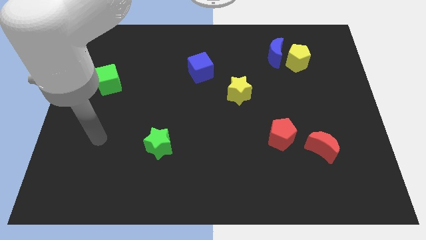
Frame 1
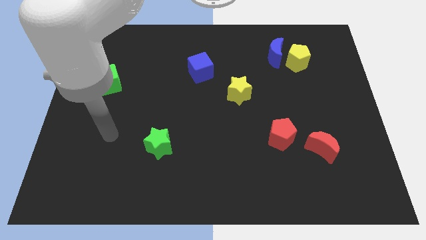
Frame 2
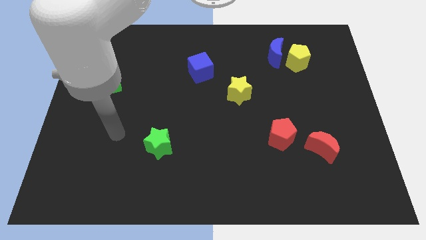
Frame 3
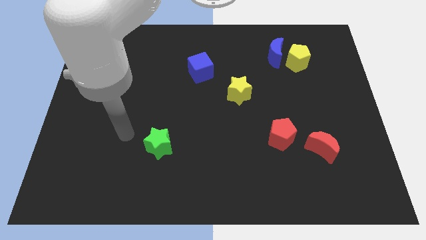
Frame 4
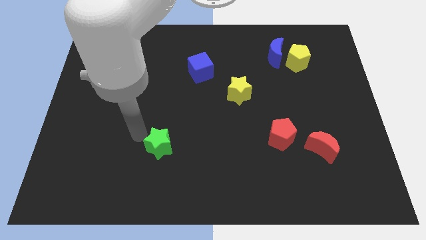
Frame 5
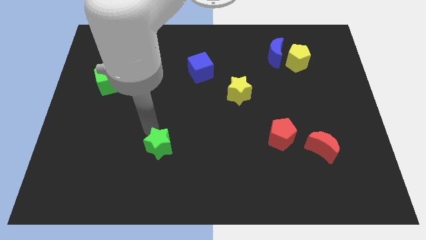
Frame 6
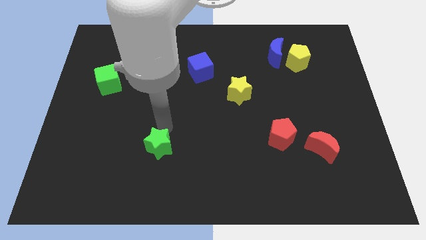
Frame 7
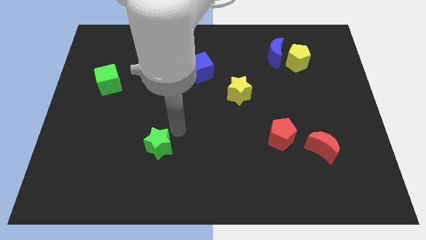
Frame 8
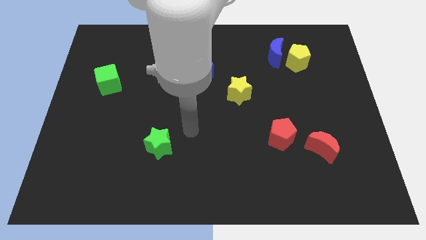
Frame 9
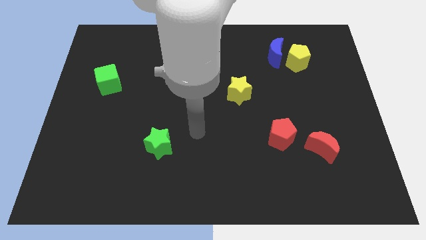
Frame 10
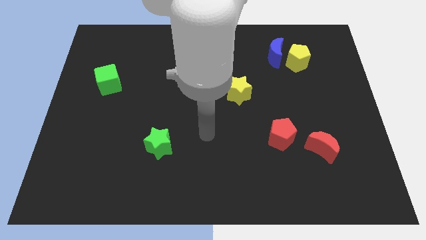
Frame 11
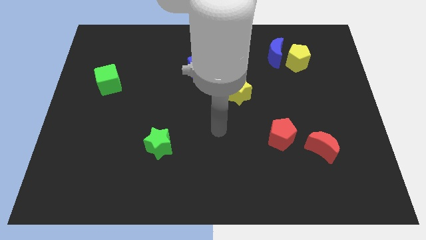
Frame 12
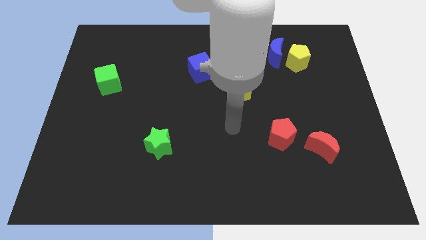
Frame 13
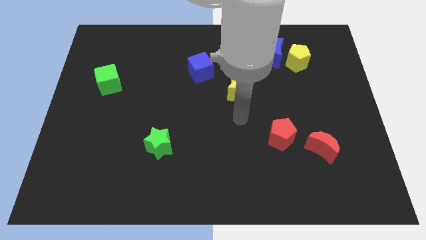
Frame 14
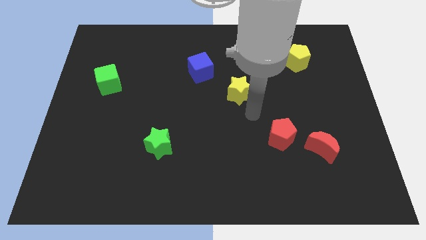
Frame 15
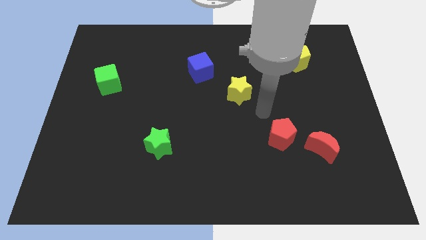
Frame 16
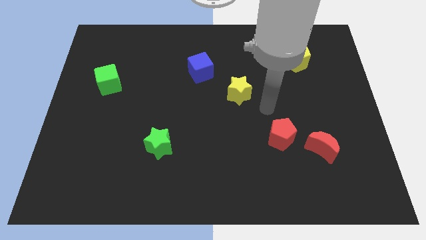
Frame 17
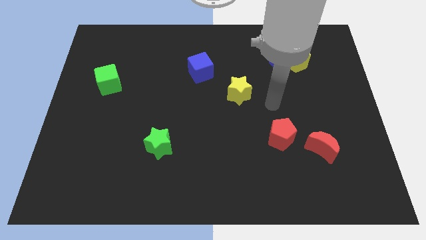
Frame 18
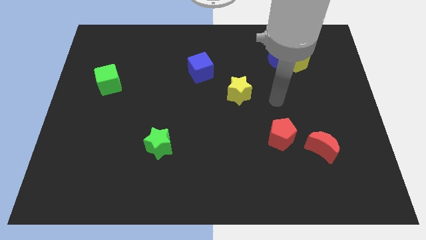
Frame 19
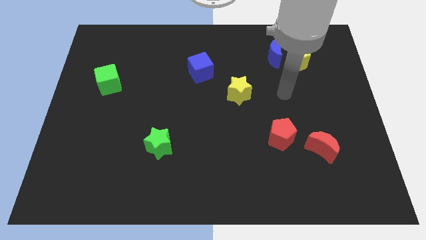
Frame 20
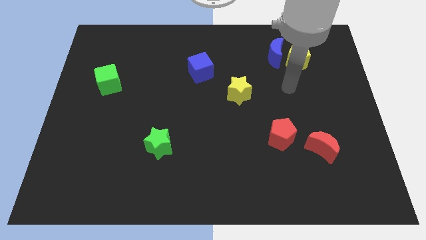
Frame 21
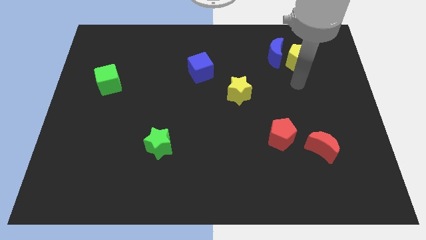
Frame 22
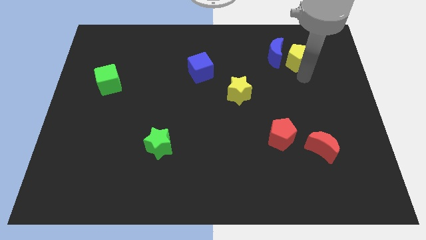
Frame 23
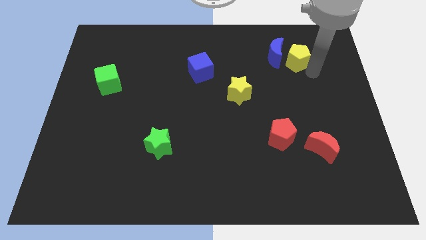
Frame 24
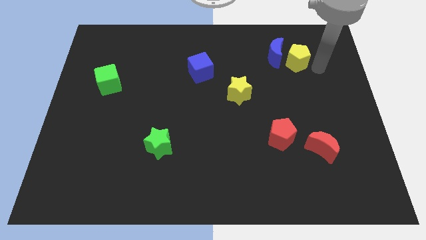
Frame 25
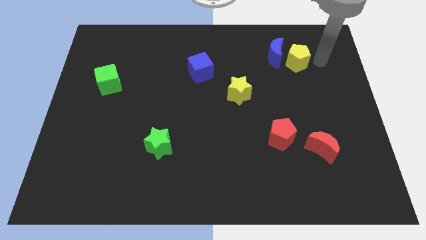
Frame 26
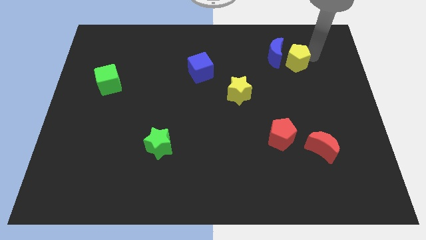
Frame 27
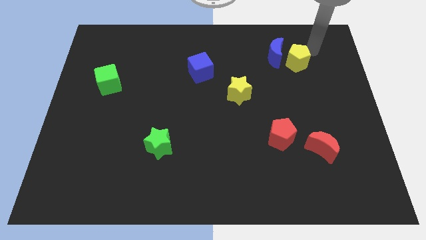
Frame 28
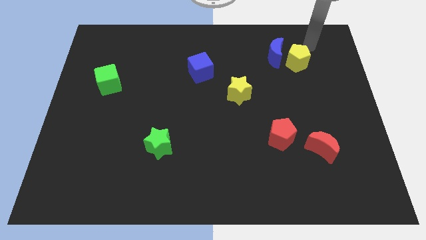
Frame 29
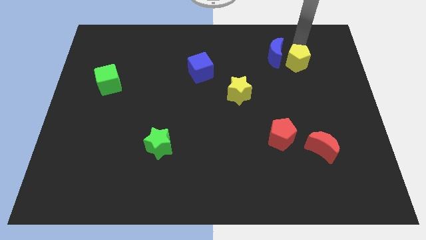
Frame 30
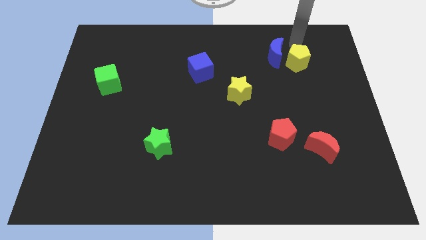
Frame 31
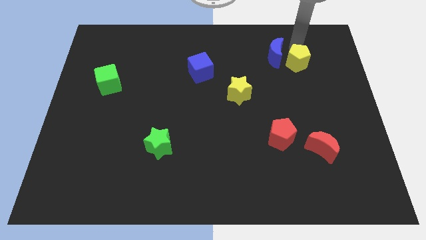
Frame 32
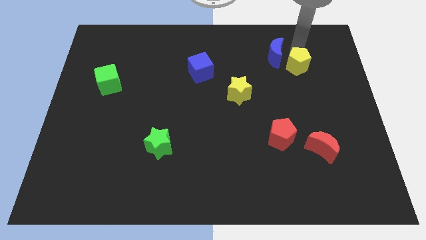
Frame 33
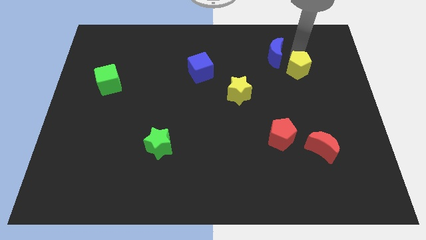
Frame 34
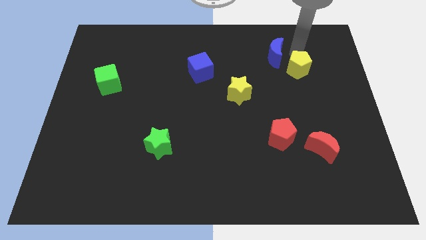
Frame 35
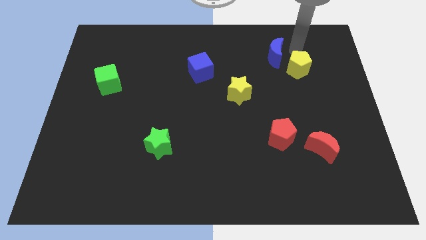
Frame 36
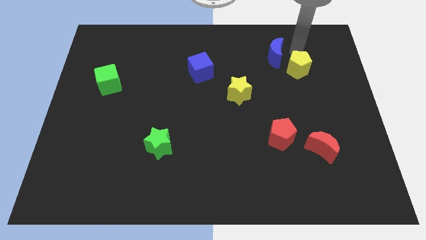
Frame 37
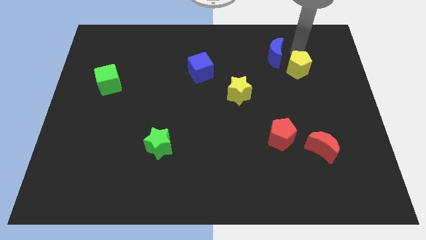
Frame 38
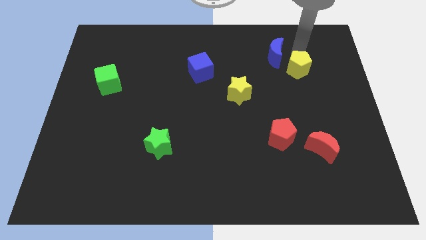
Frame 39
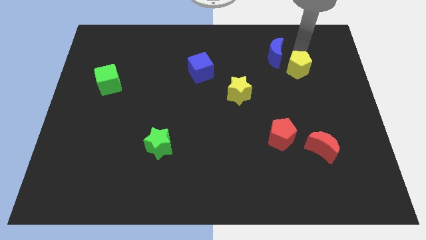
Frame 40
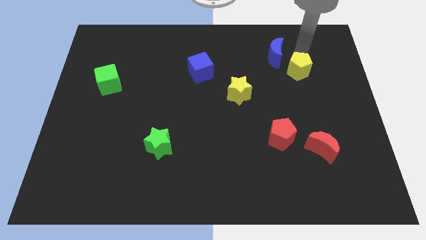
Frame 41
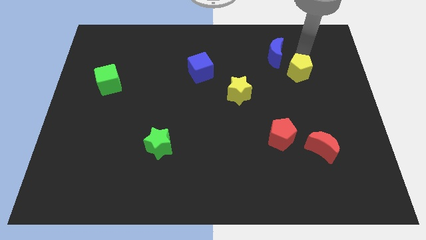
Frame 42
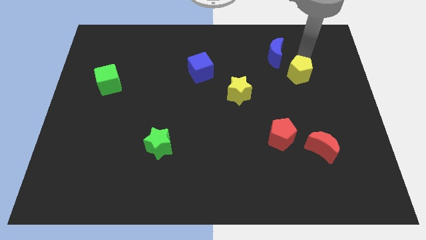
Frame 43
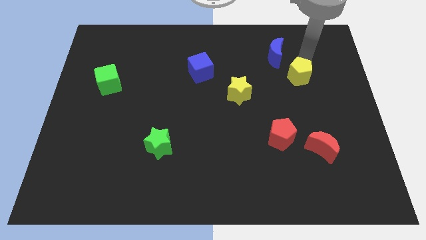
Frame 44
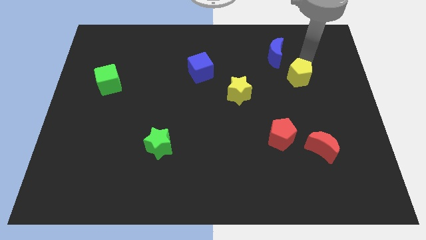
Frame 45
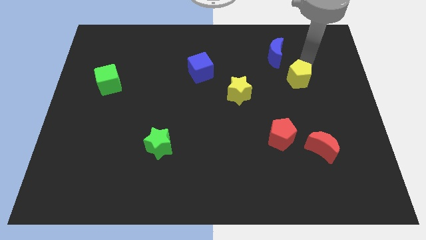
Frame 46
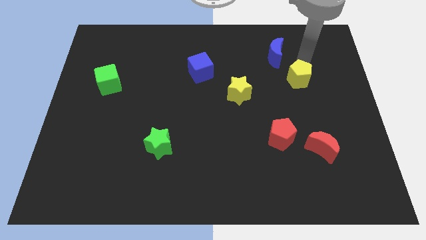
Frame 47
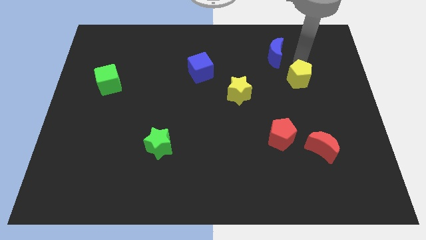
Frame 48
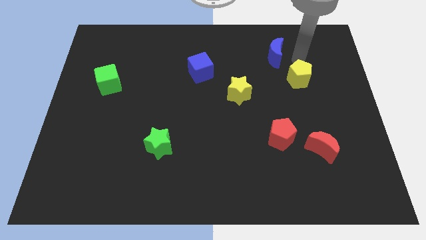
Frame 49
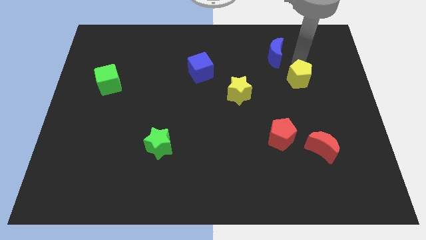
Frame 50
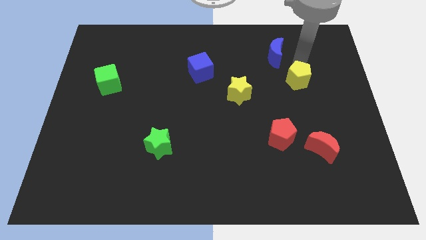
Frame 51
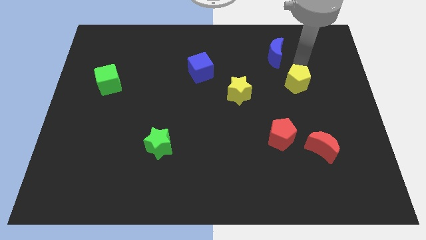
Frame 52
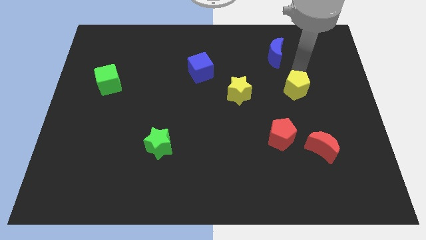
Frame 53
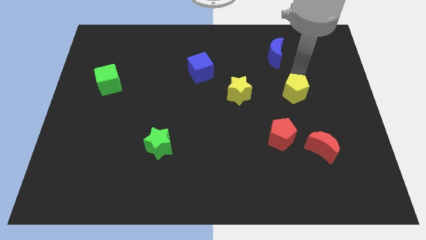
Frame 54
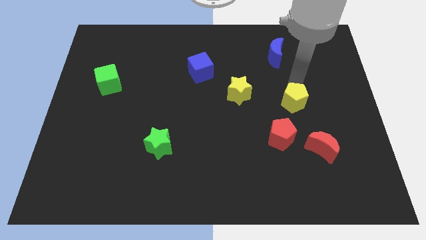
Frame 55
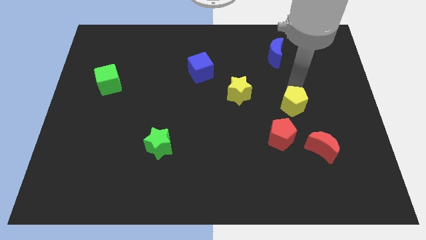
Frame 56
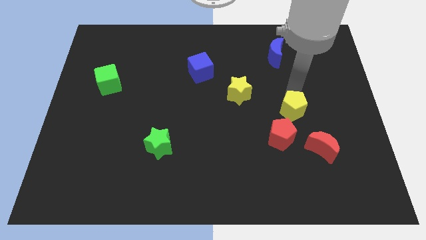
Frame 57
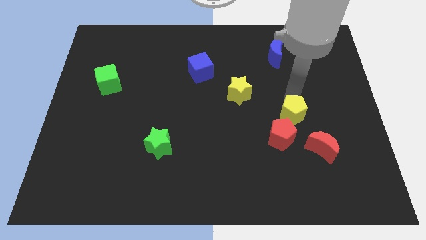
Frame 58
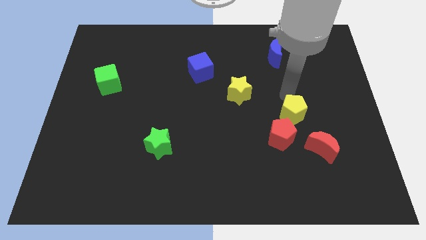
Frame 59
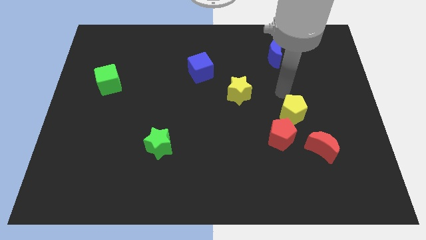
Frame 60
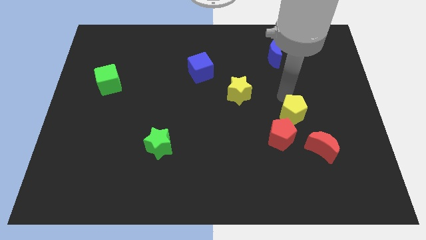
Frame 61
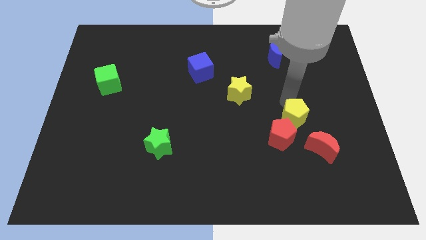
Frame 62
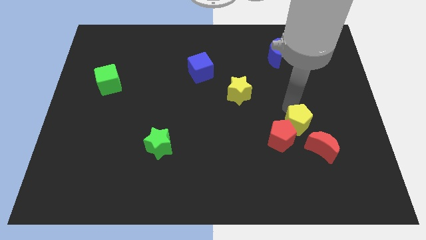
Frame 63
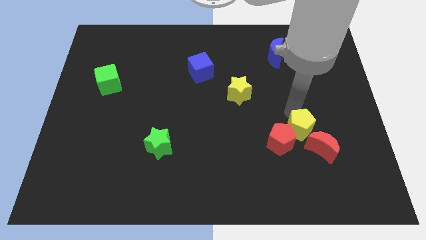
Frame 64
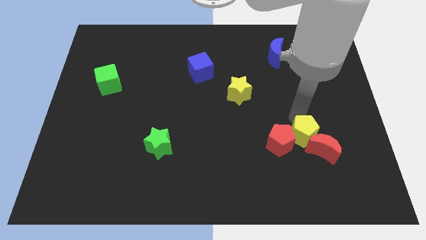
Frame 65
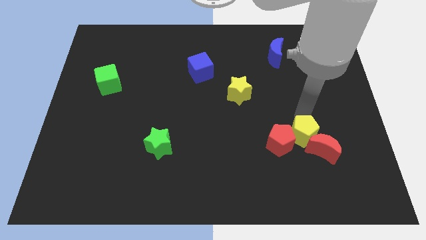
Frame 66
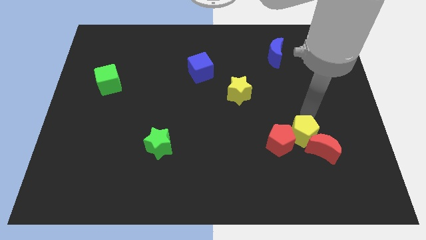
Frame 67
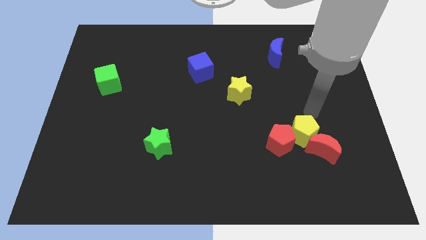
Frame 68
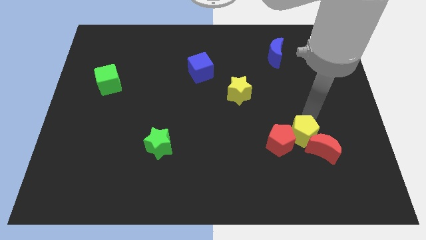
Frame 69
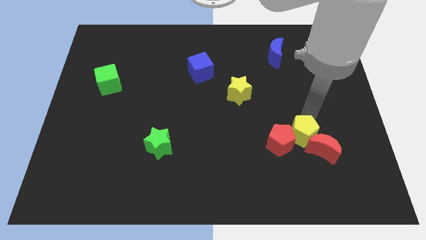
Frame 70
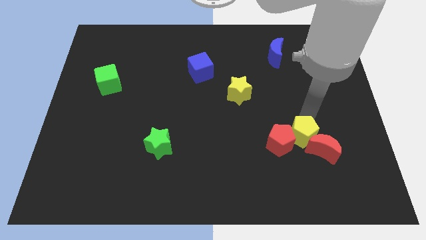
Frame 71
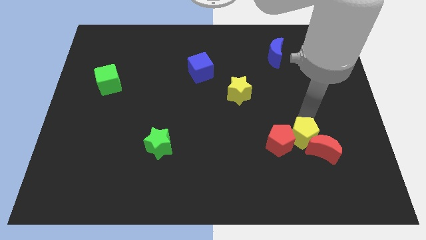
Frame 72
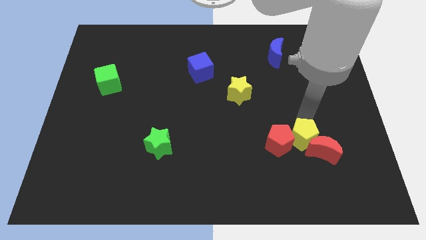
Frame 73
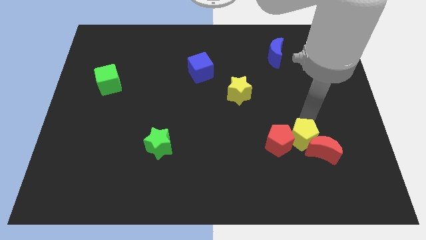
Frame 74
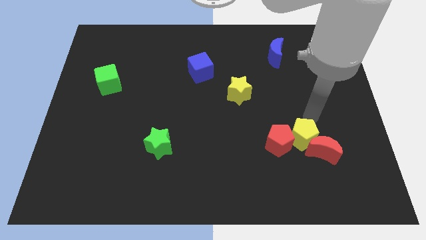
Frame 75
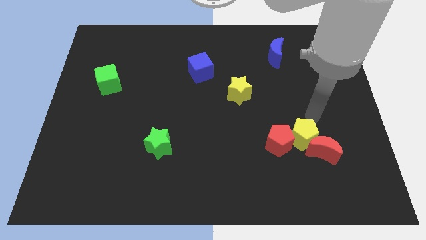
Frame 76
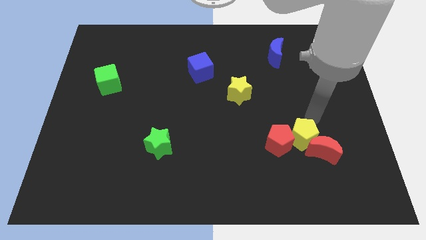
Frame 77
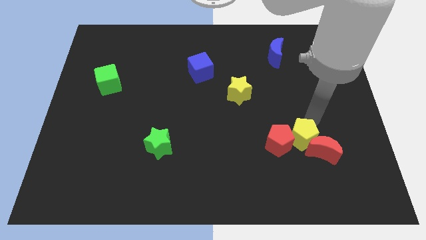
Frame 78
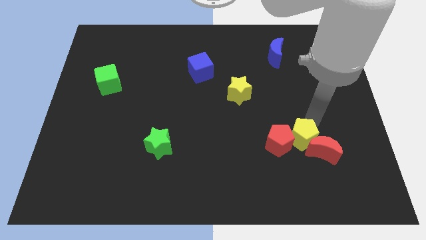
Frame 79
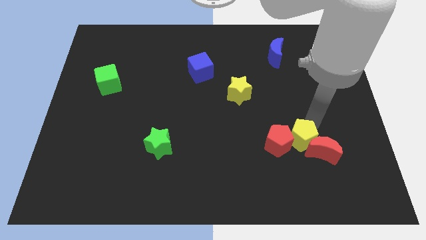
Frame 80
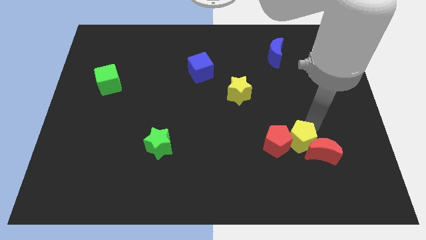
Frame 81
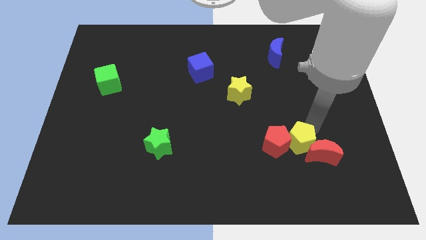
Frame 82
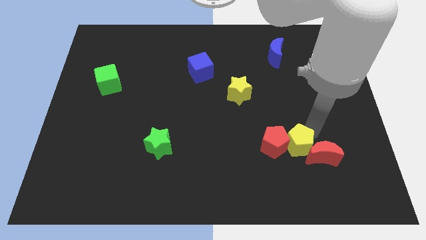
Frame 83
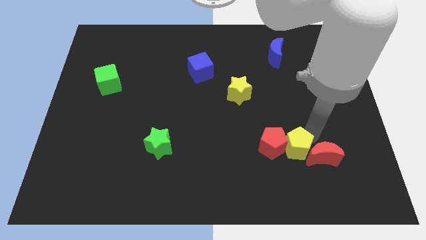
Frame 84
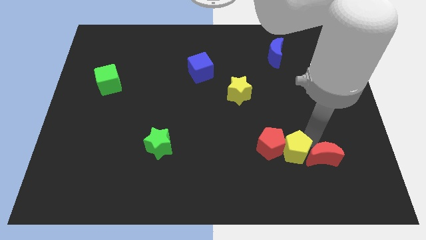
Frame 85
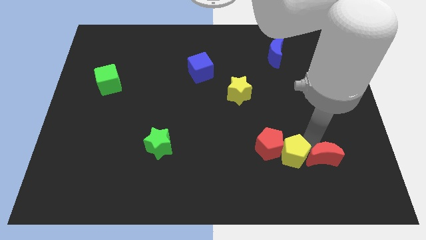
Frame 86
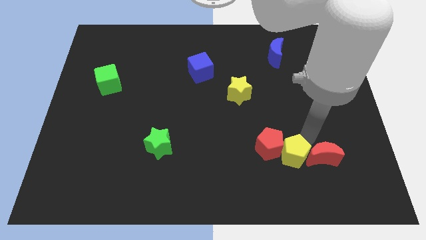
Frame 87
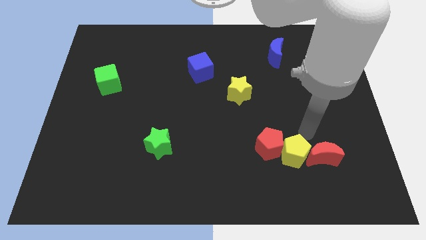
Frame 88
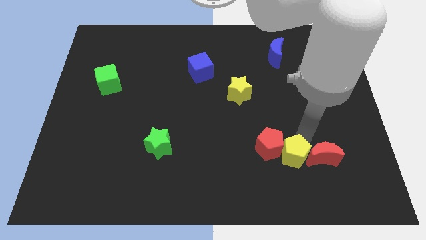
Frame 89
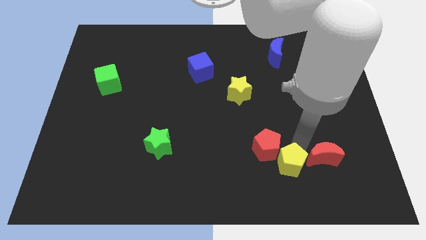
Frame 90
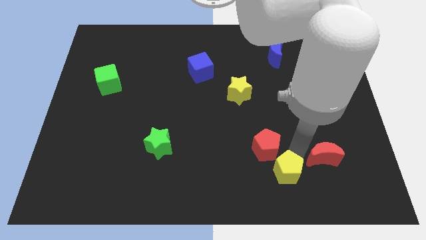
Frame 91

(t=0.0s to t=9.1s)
push the yellow pentagon below the red pentagon
